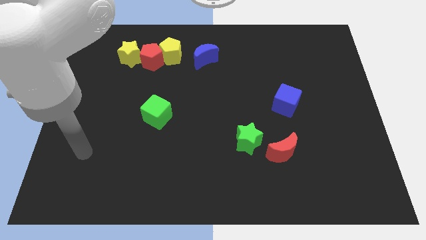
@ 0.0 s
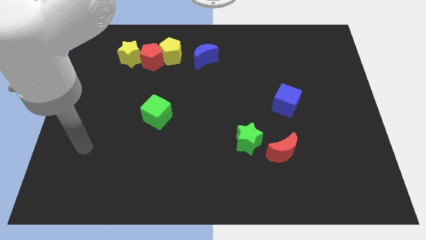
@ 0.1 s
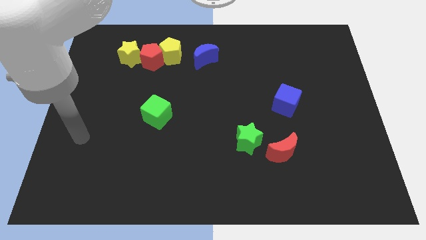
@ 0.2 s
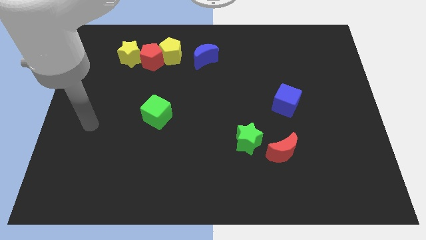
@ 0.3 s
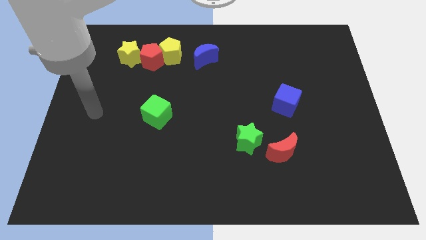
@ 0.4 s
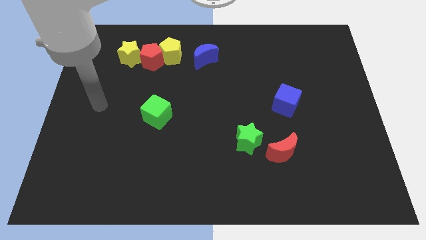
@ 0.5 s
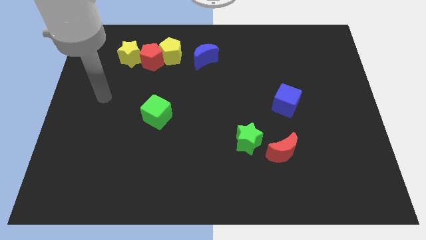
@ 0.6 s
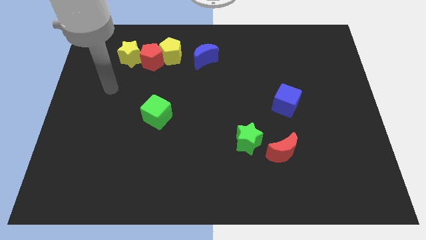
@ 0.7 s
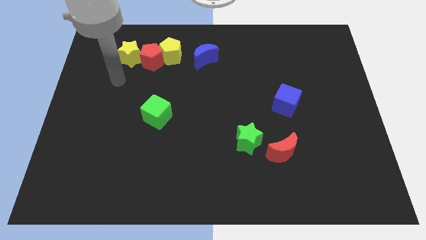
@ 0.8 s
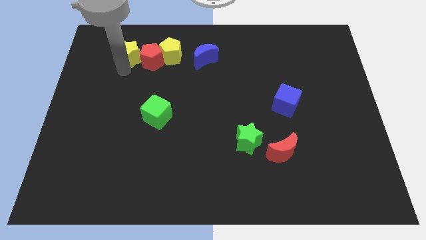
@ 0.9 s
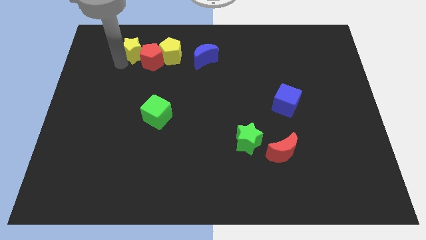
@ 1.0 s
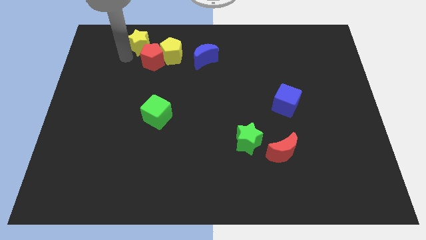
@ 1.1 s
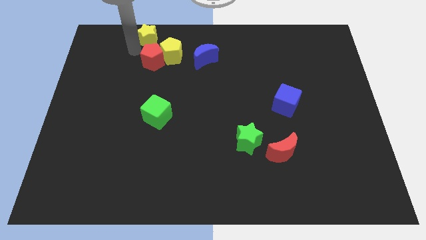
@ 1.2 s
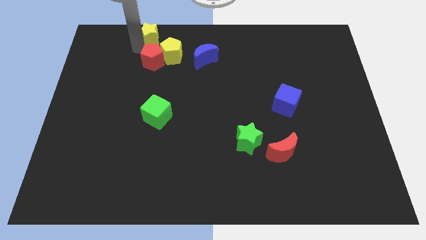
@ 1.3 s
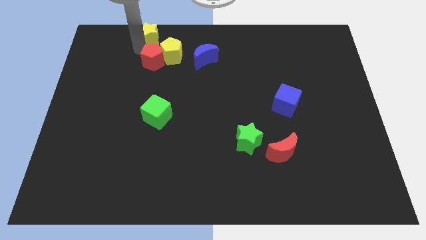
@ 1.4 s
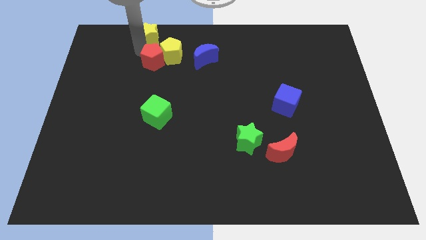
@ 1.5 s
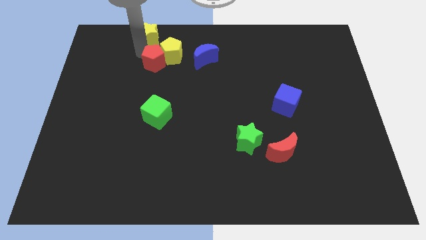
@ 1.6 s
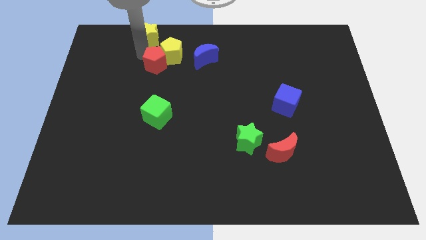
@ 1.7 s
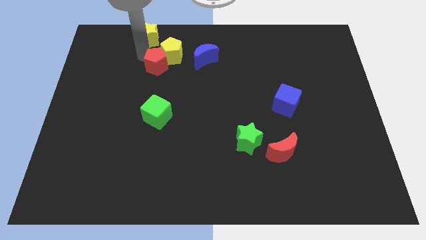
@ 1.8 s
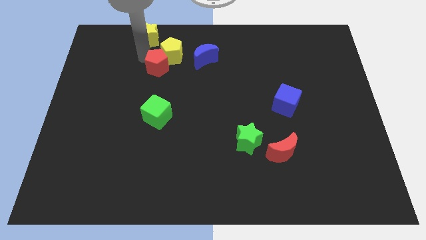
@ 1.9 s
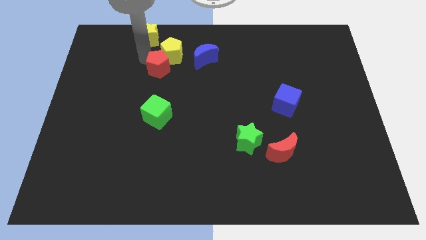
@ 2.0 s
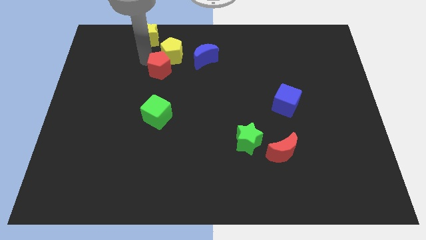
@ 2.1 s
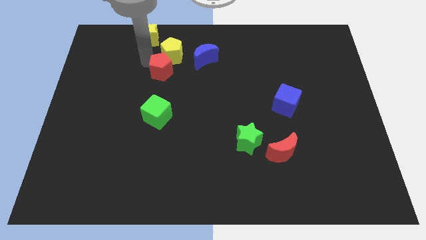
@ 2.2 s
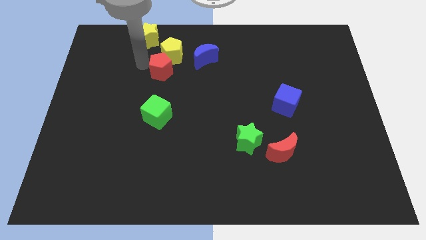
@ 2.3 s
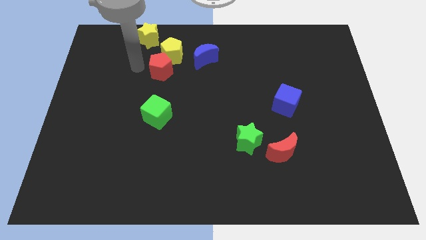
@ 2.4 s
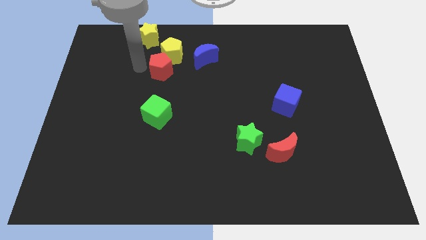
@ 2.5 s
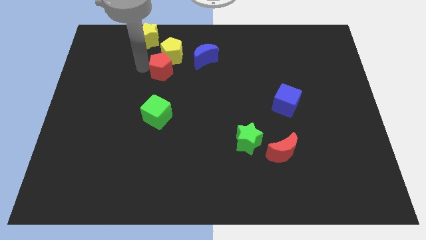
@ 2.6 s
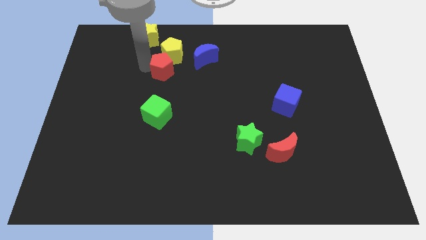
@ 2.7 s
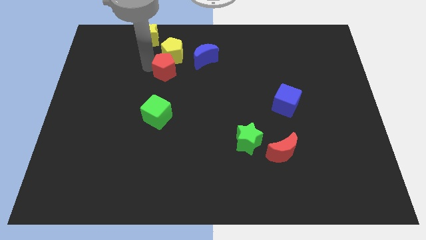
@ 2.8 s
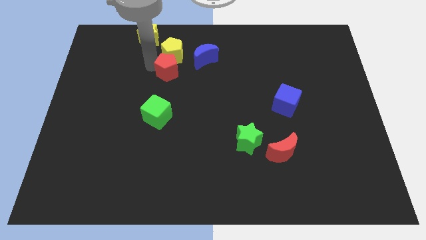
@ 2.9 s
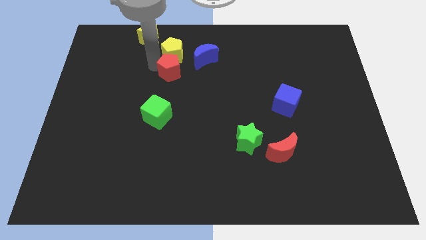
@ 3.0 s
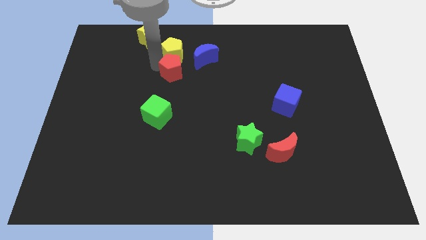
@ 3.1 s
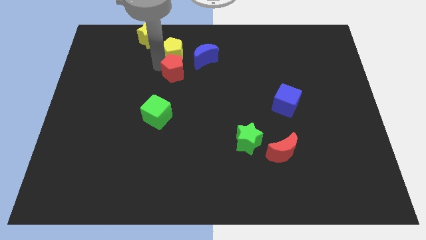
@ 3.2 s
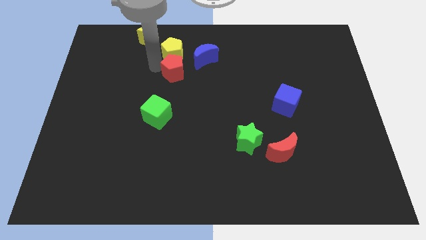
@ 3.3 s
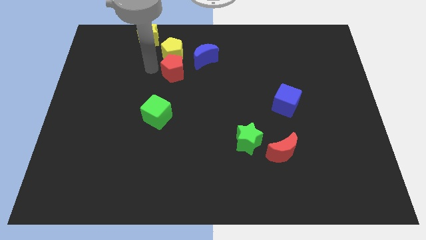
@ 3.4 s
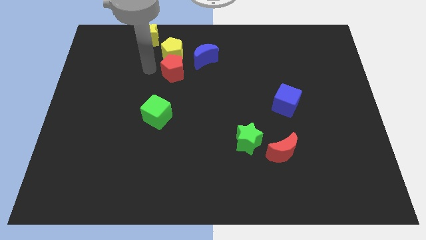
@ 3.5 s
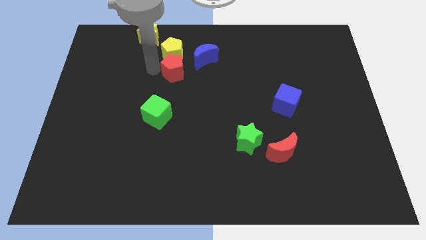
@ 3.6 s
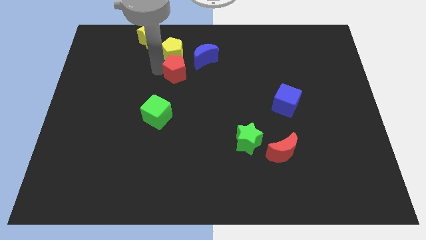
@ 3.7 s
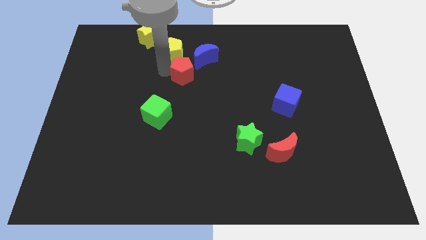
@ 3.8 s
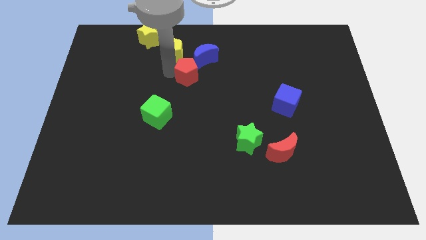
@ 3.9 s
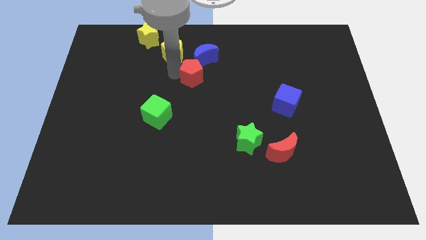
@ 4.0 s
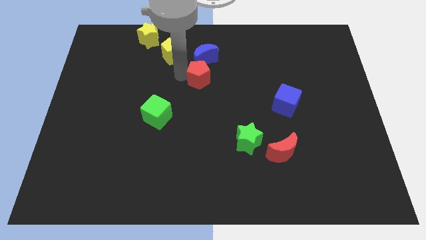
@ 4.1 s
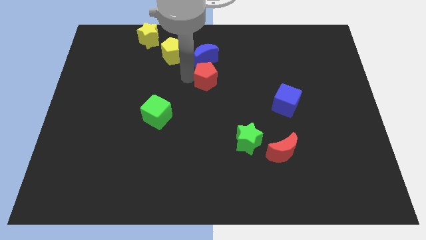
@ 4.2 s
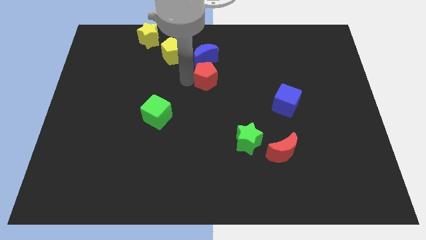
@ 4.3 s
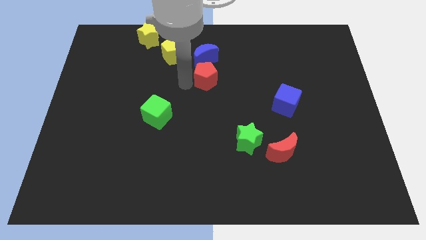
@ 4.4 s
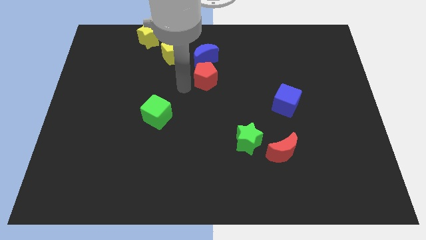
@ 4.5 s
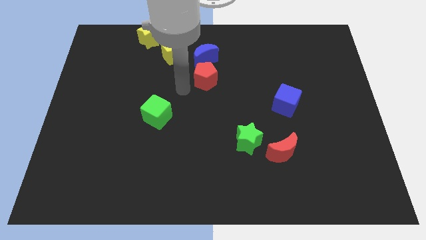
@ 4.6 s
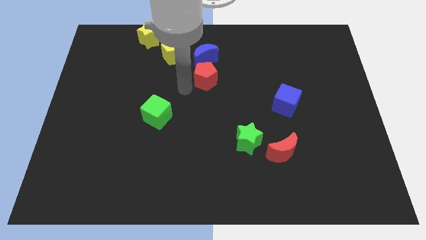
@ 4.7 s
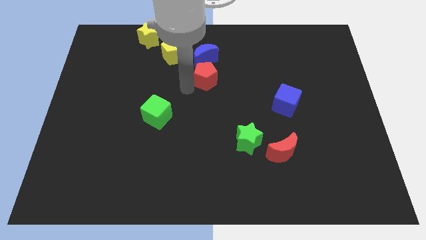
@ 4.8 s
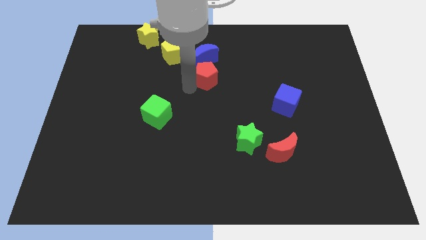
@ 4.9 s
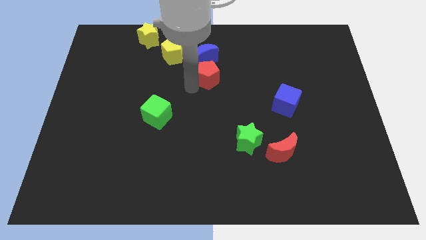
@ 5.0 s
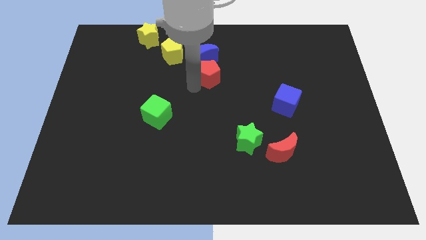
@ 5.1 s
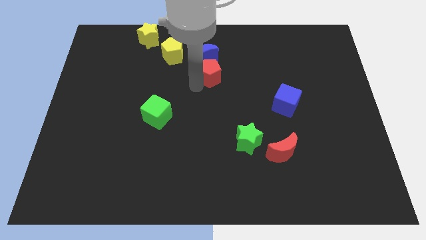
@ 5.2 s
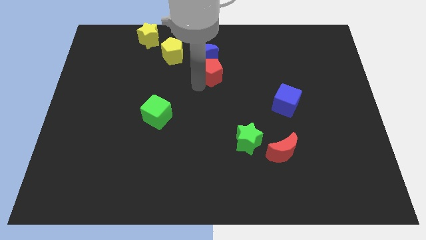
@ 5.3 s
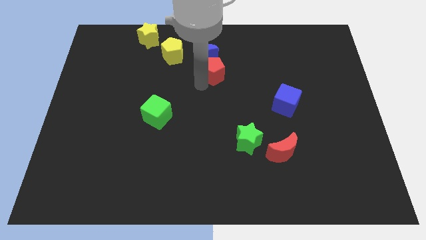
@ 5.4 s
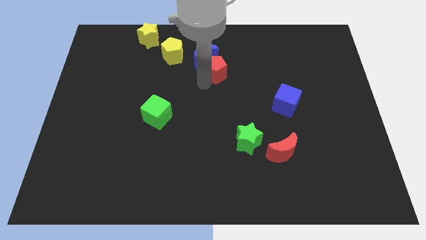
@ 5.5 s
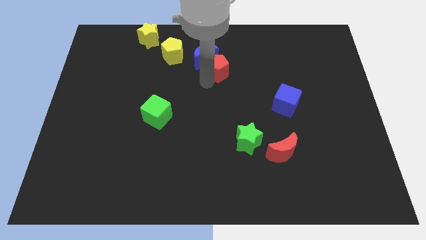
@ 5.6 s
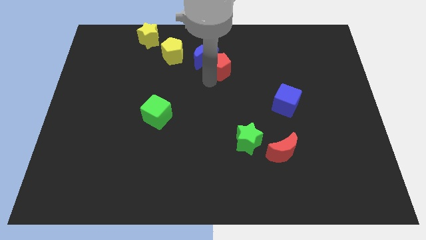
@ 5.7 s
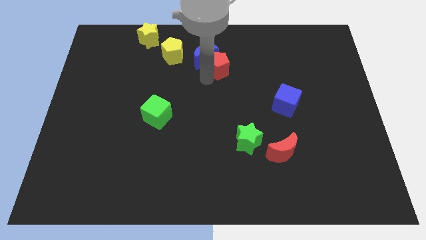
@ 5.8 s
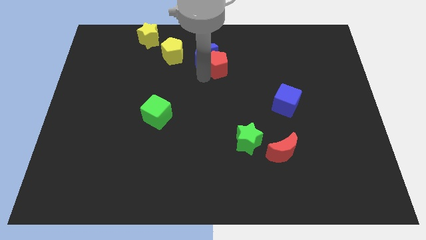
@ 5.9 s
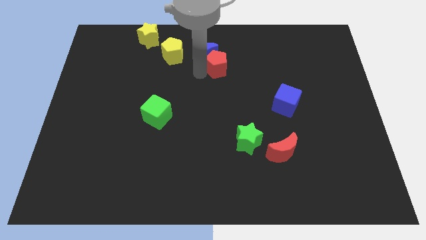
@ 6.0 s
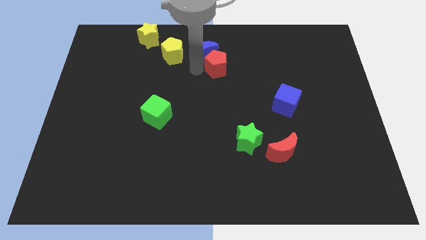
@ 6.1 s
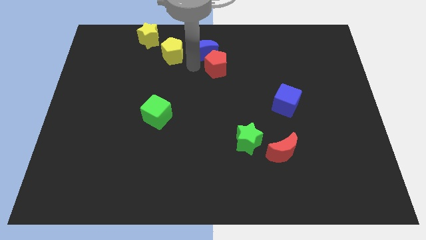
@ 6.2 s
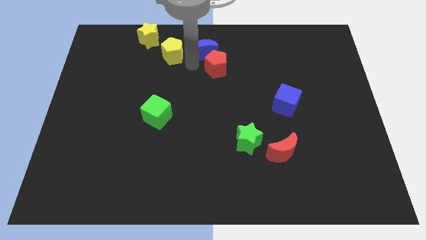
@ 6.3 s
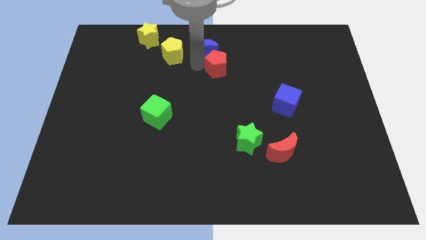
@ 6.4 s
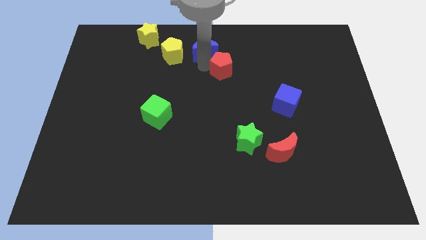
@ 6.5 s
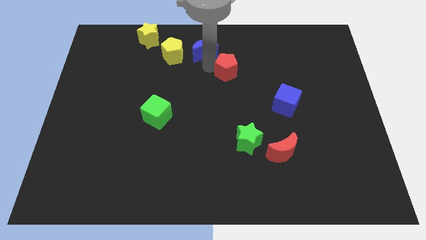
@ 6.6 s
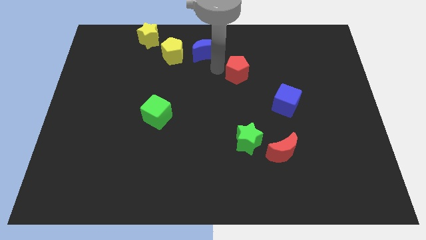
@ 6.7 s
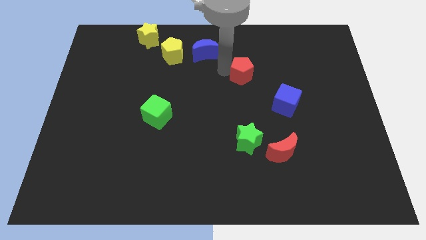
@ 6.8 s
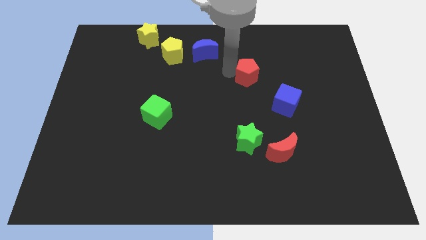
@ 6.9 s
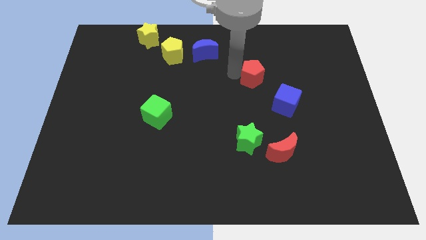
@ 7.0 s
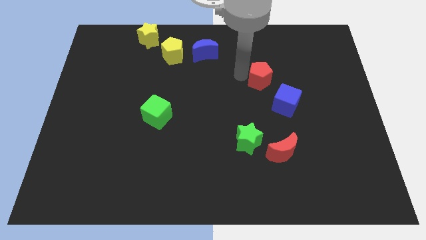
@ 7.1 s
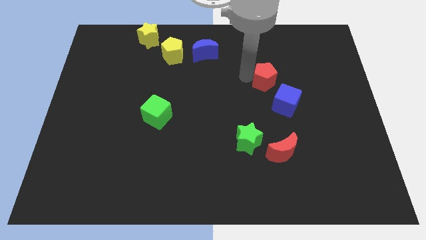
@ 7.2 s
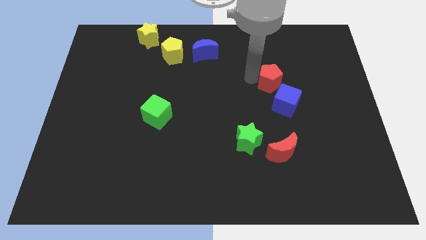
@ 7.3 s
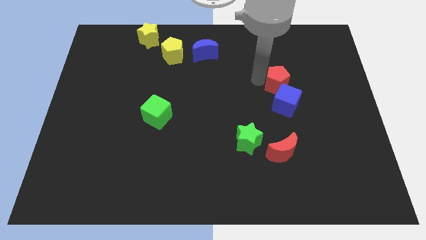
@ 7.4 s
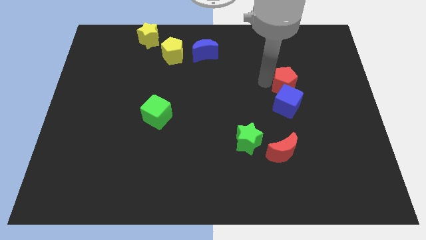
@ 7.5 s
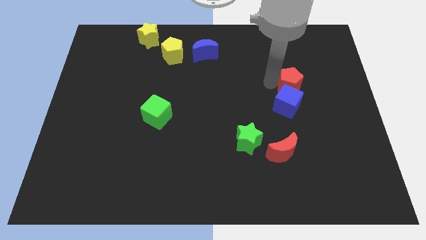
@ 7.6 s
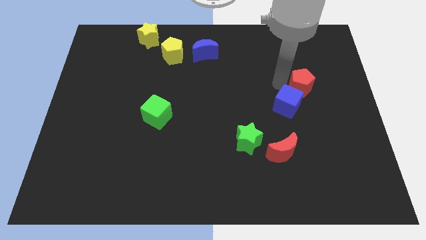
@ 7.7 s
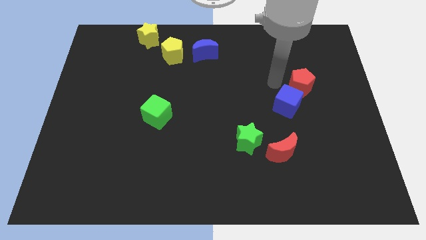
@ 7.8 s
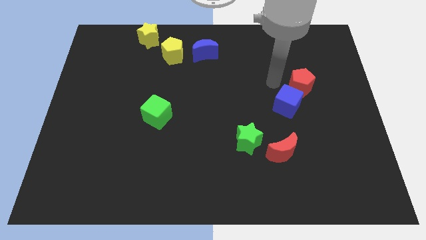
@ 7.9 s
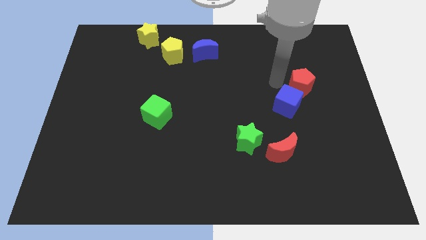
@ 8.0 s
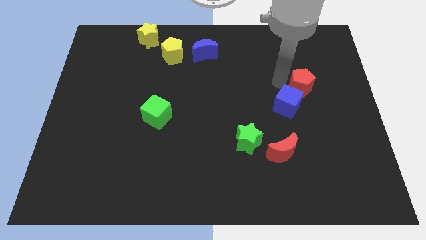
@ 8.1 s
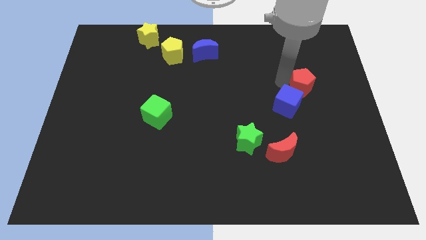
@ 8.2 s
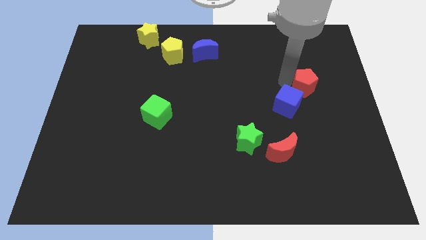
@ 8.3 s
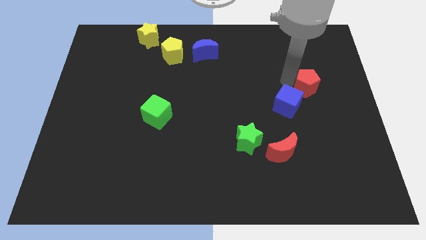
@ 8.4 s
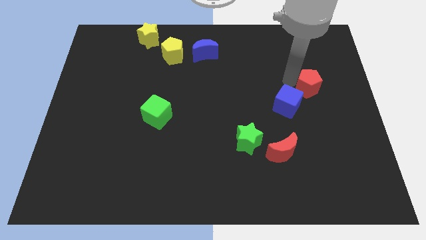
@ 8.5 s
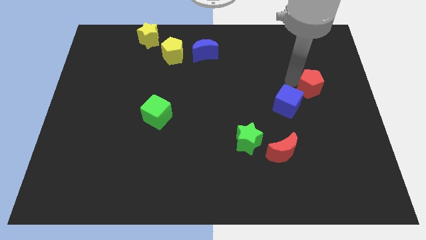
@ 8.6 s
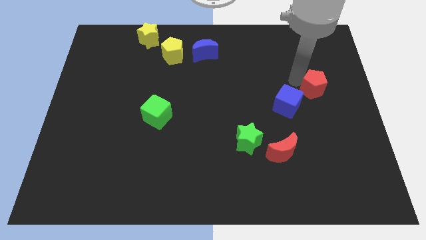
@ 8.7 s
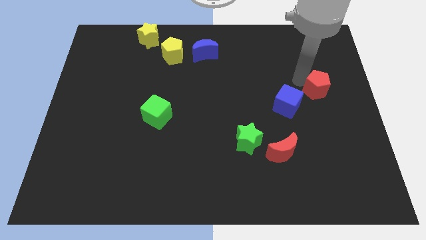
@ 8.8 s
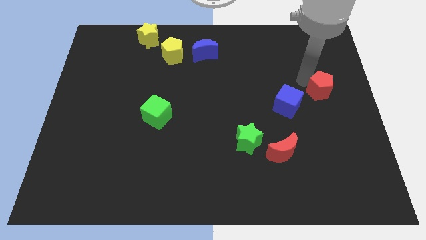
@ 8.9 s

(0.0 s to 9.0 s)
push the red pentagon to the right side
